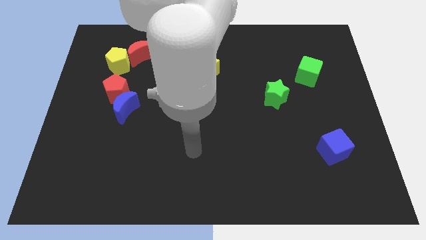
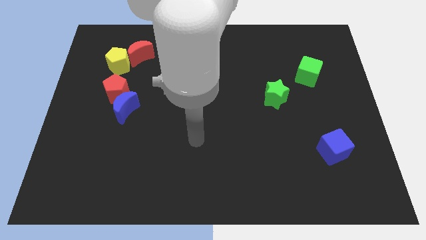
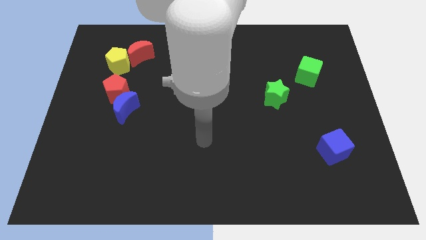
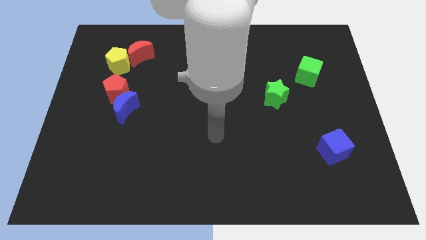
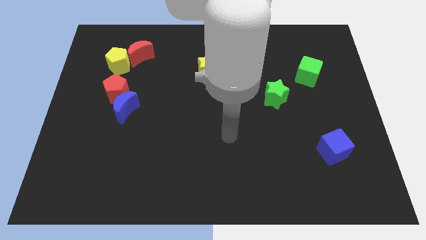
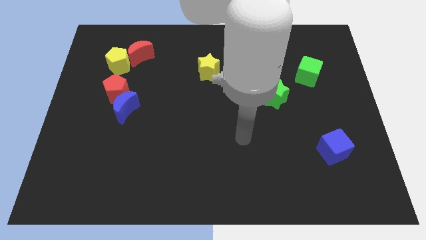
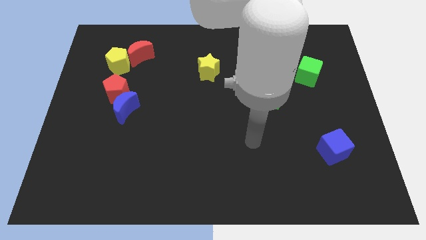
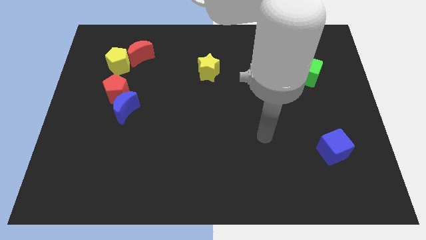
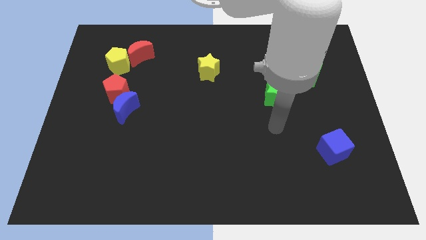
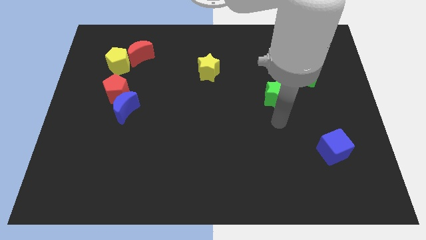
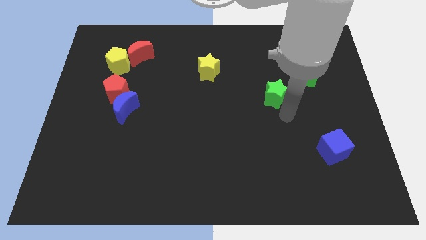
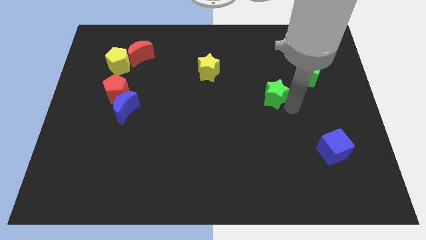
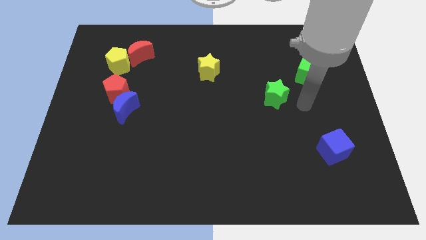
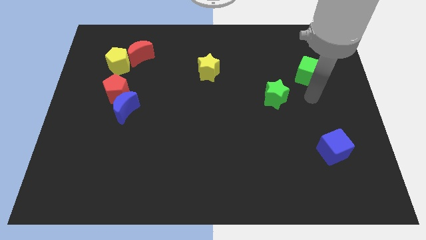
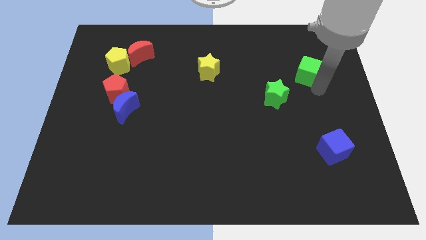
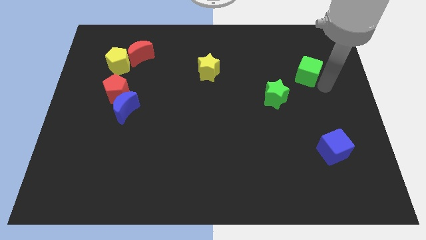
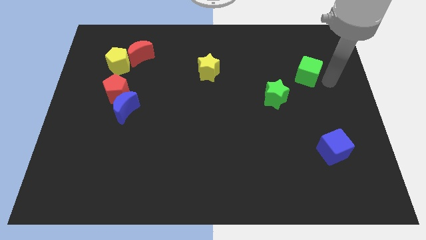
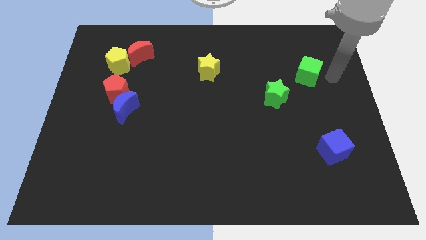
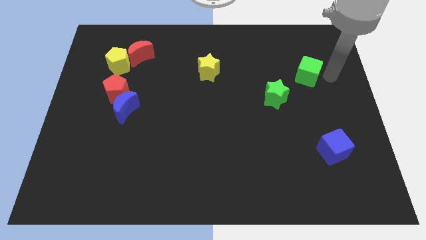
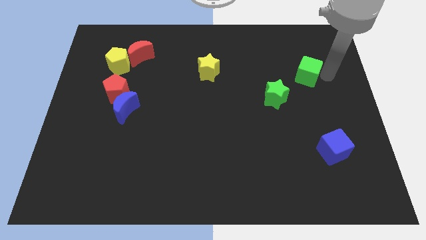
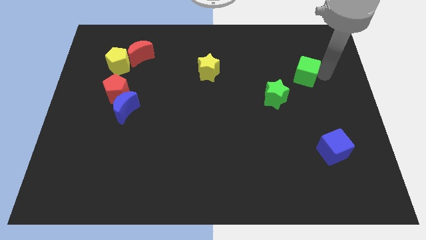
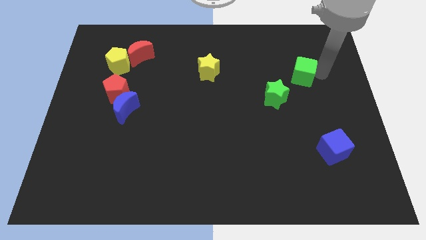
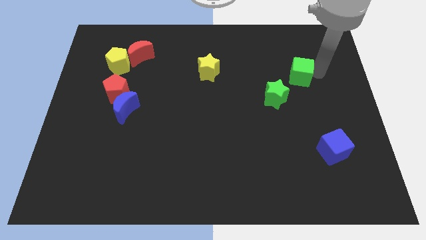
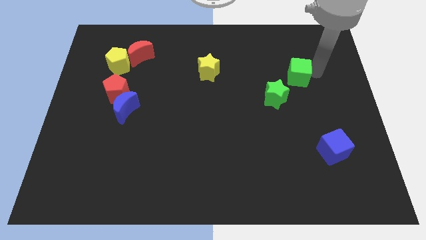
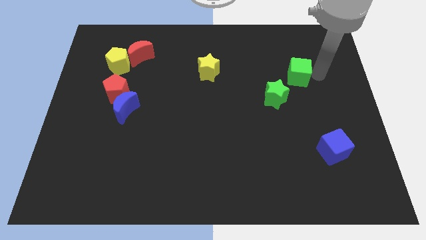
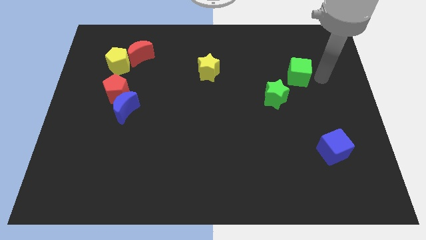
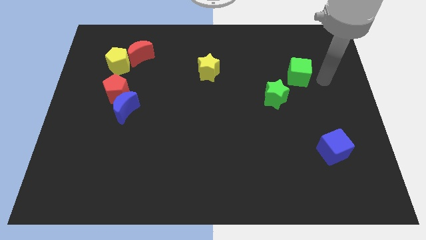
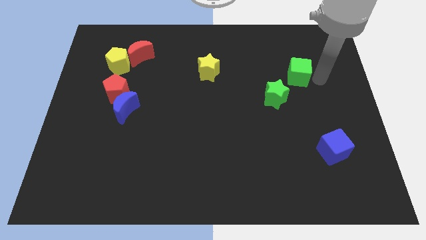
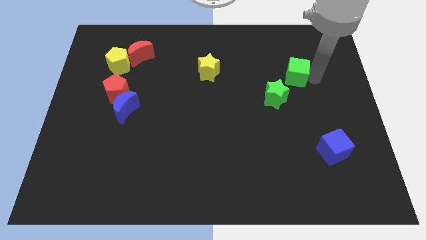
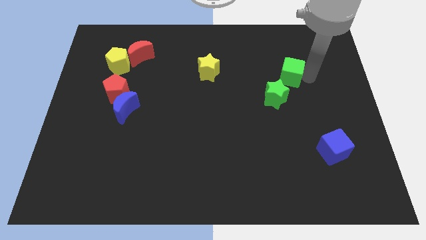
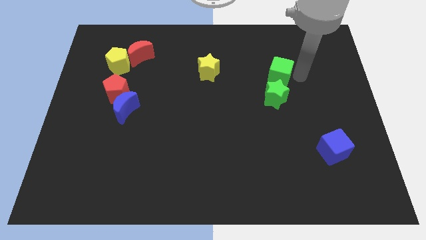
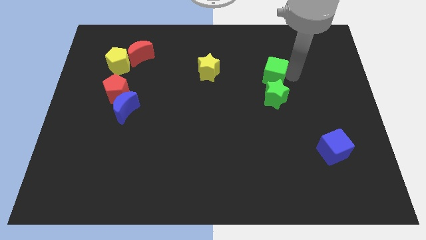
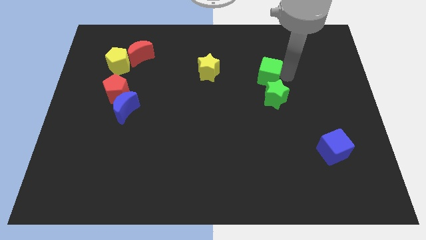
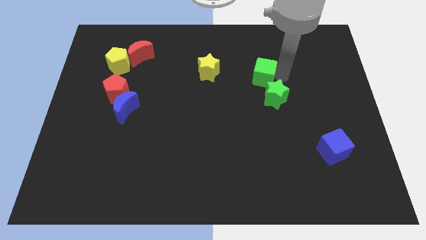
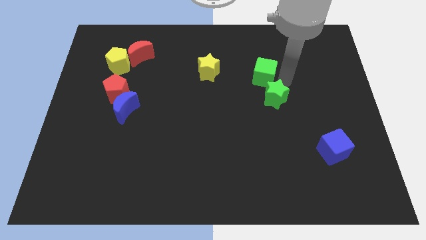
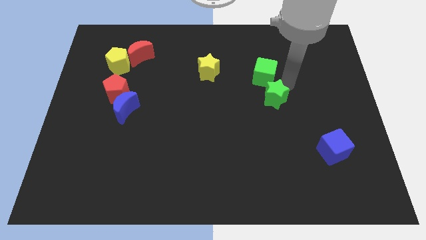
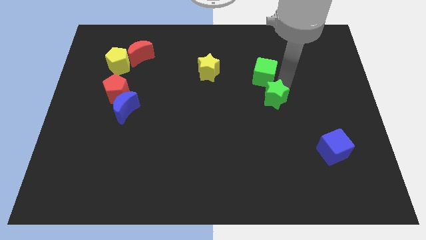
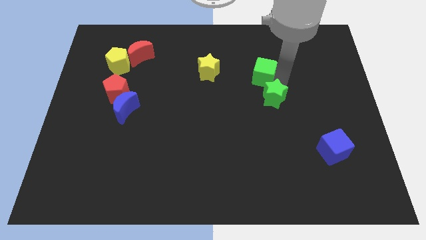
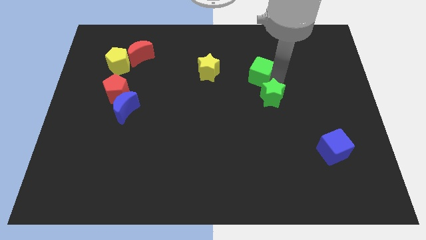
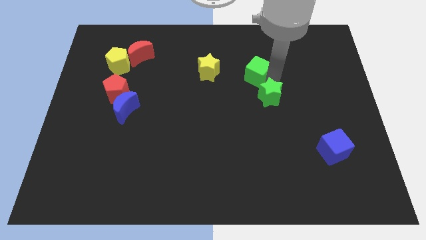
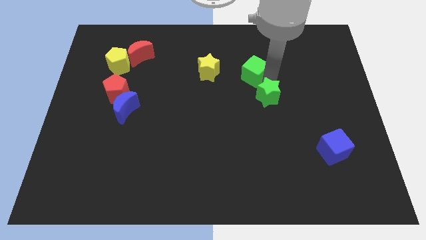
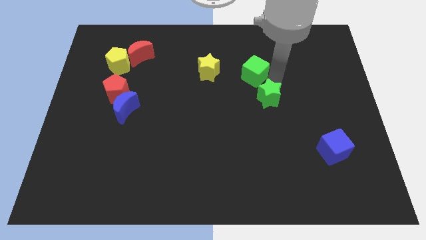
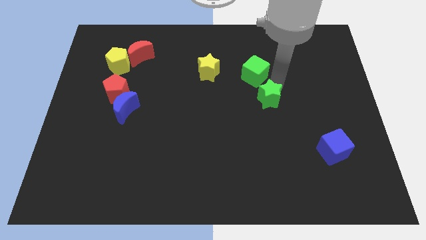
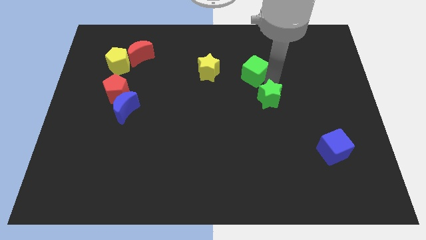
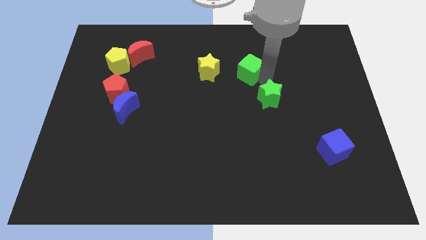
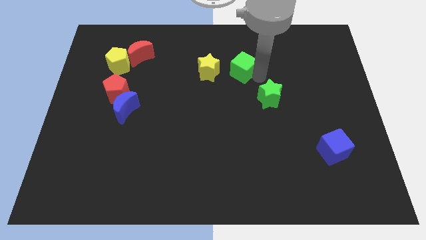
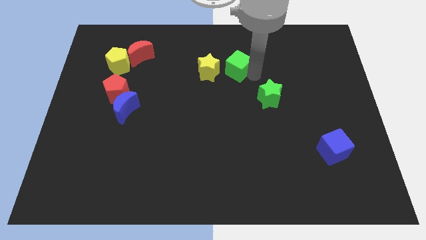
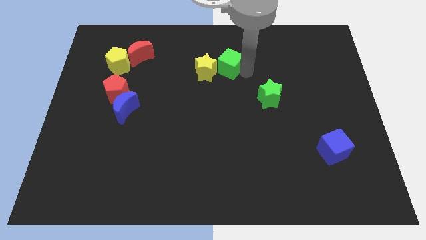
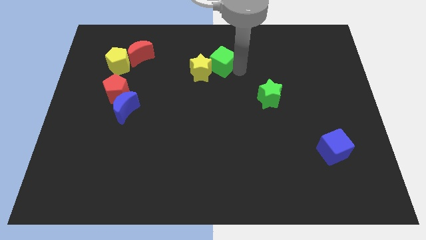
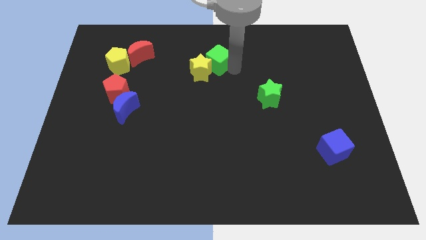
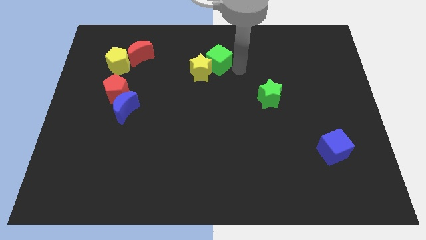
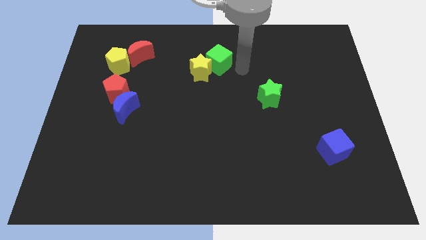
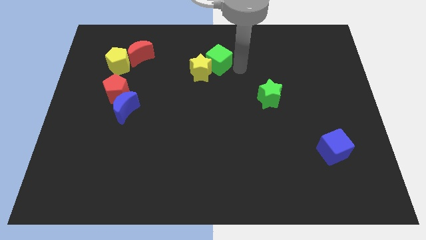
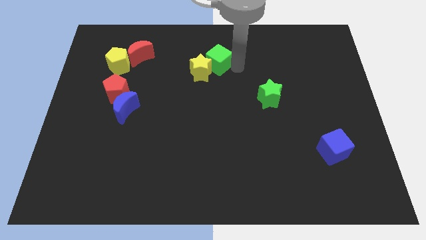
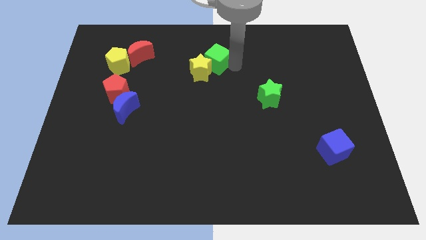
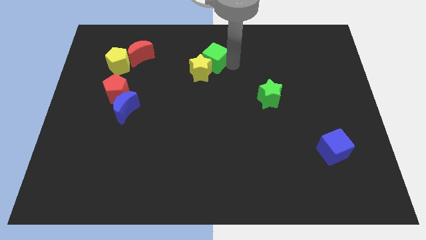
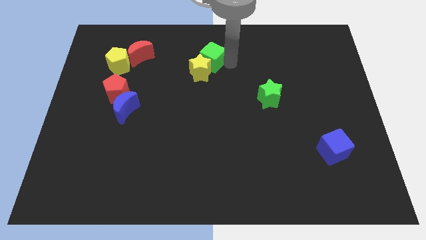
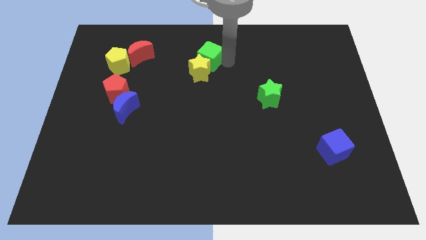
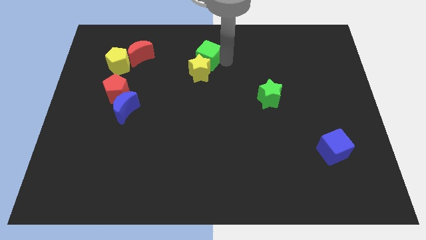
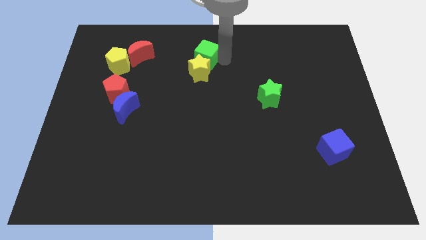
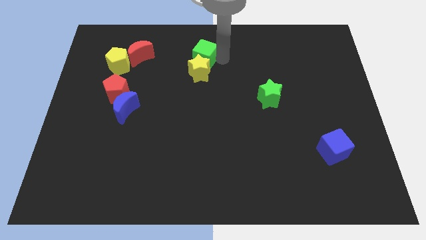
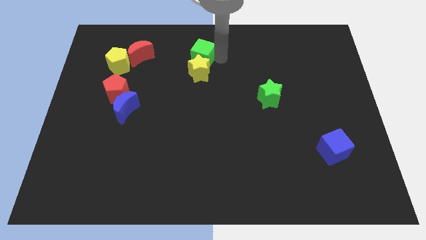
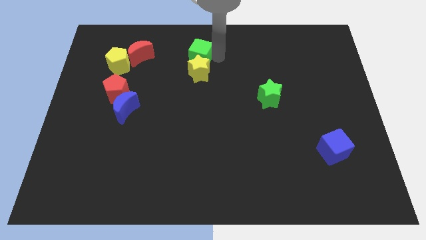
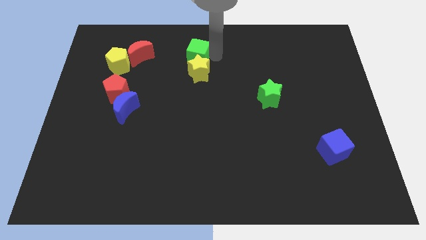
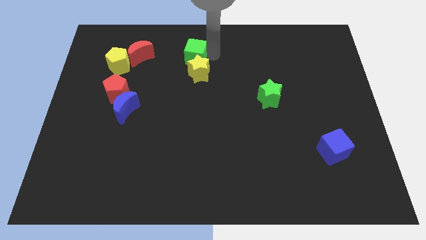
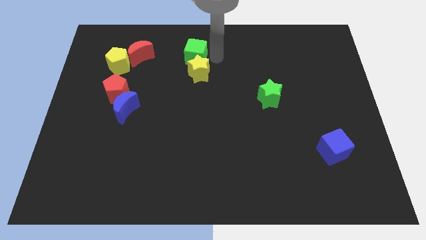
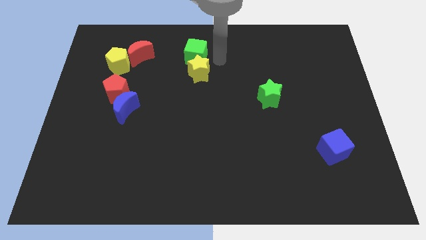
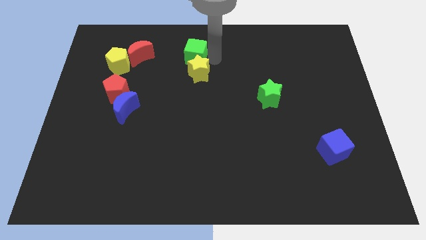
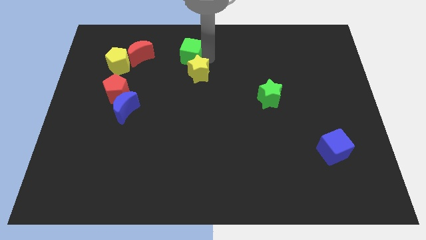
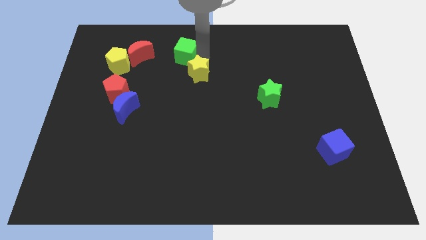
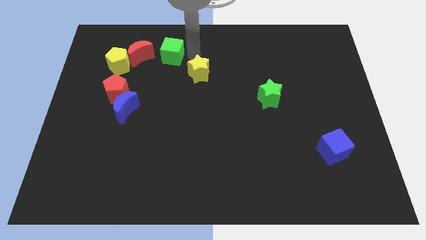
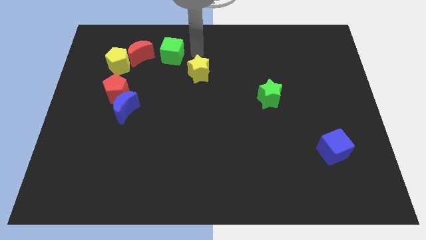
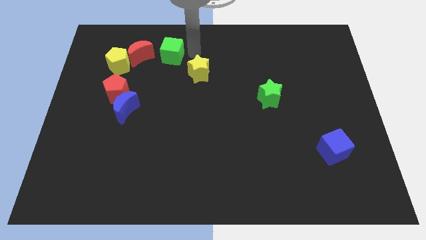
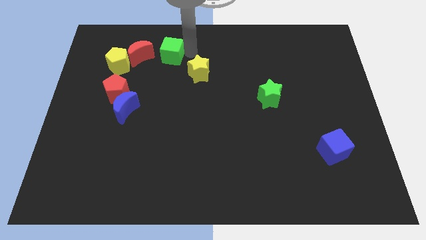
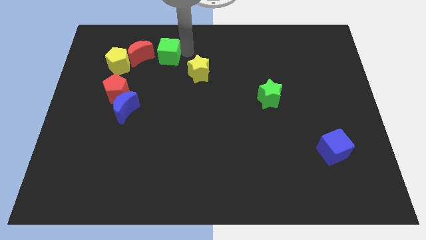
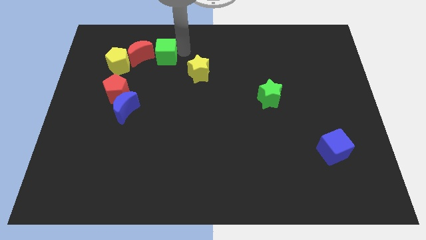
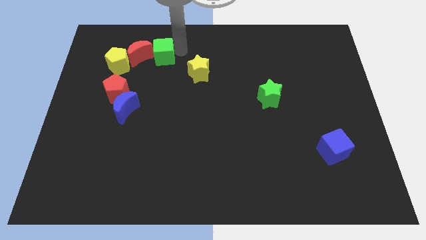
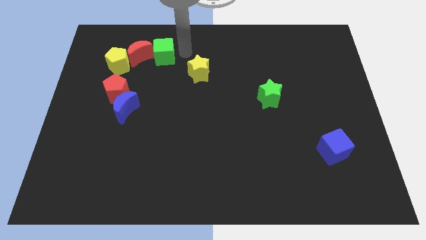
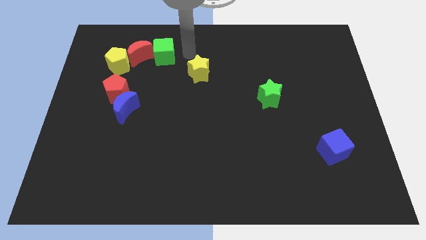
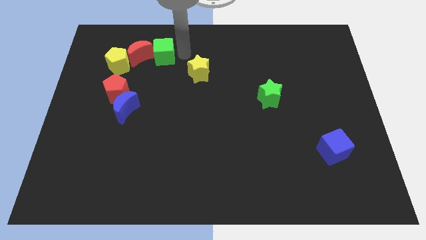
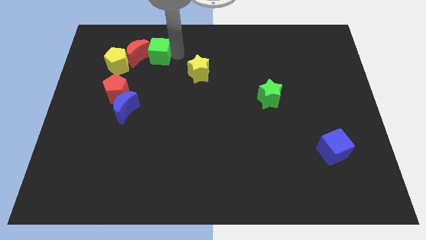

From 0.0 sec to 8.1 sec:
put the green cube to the red moon
